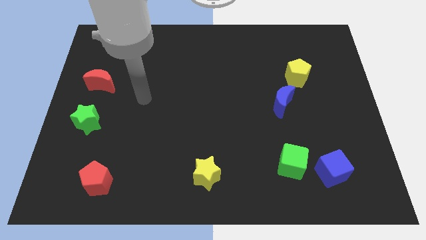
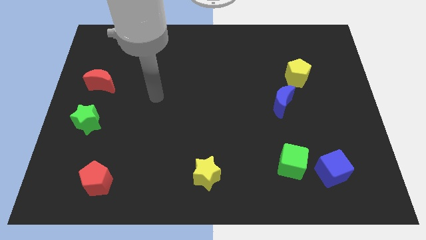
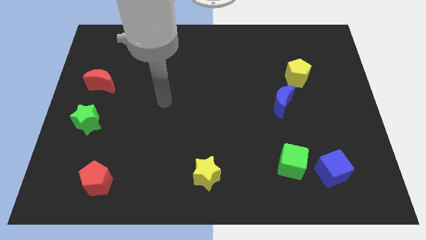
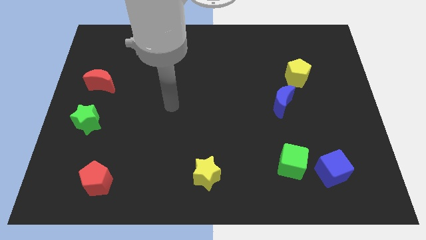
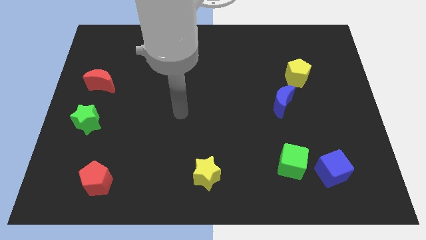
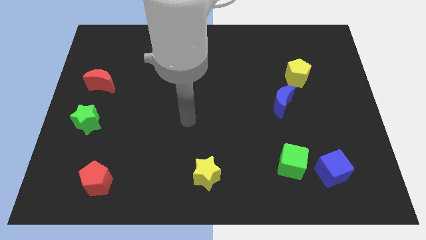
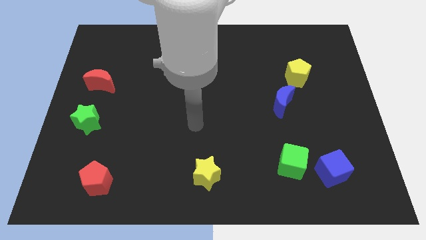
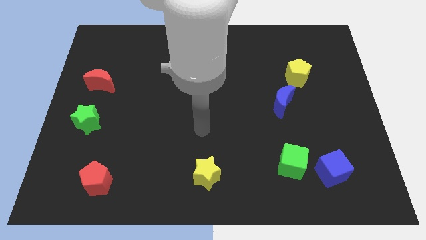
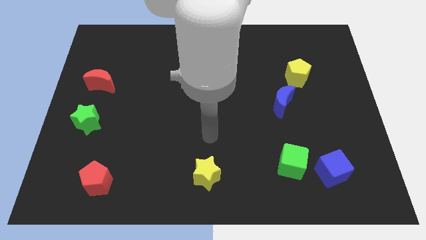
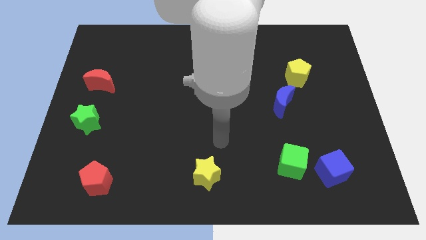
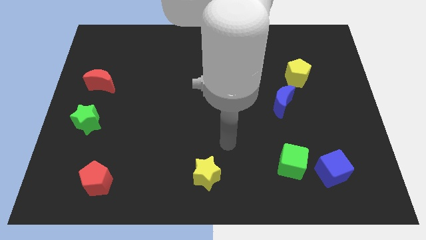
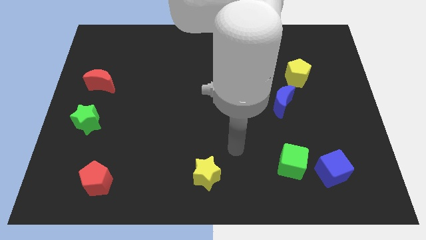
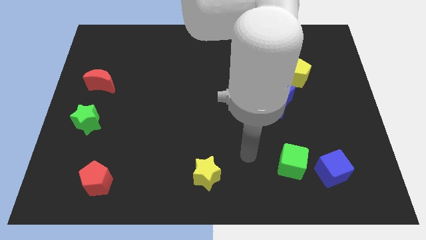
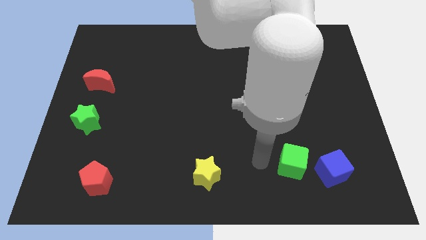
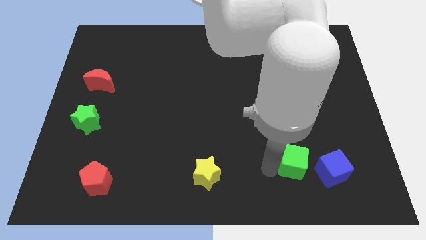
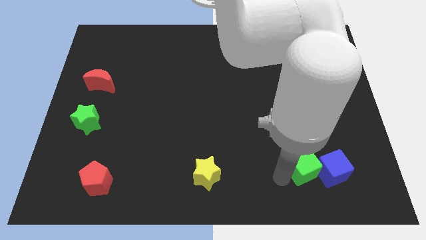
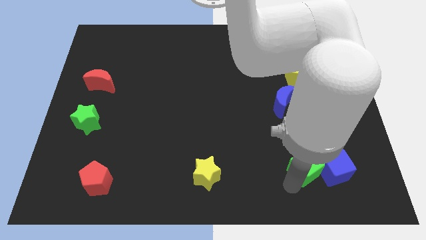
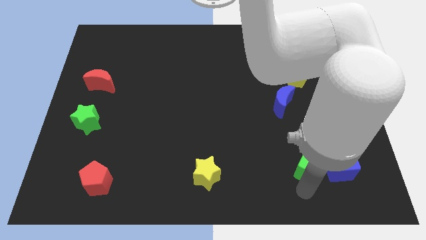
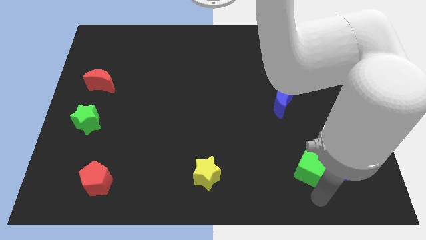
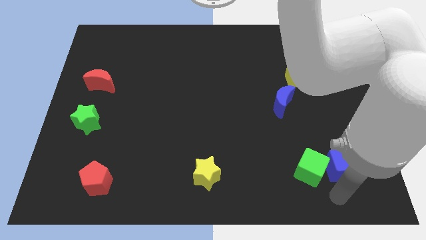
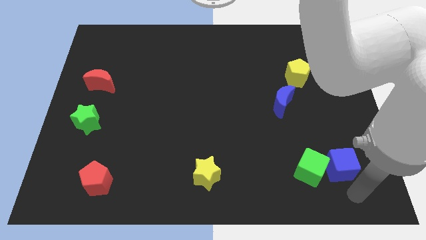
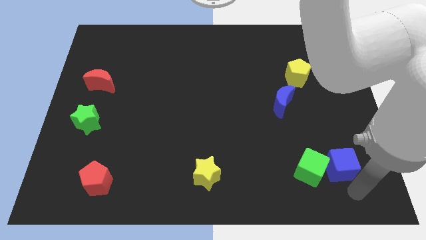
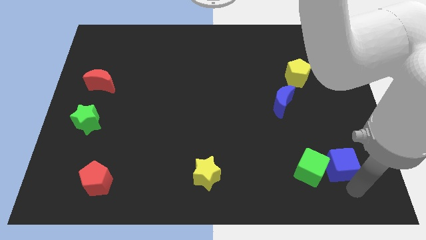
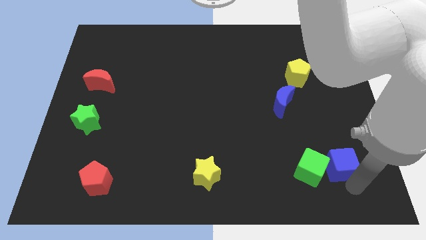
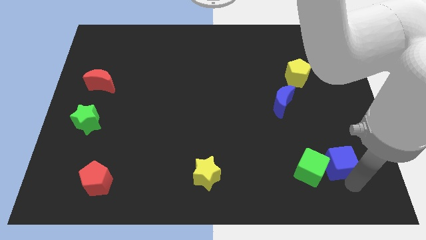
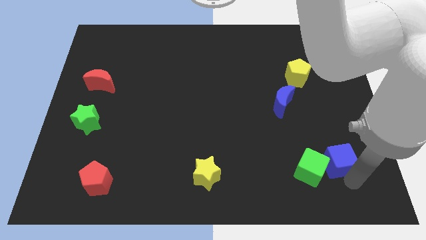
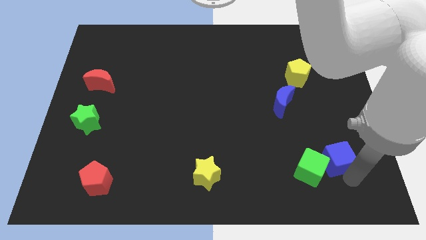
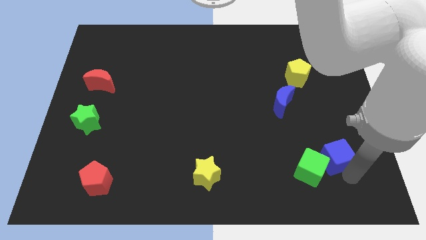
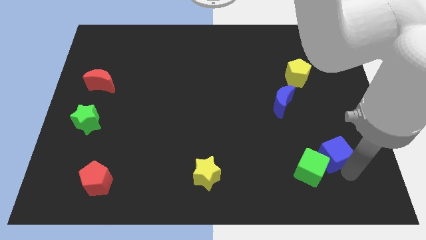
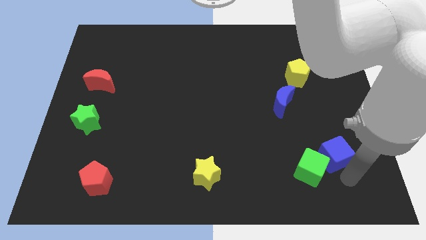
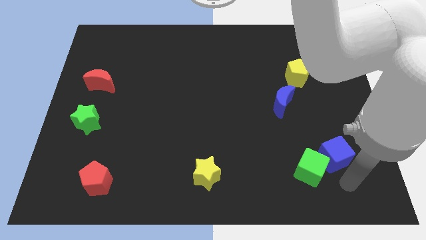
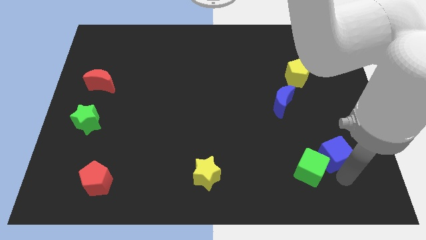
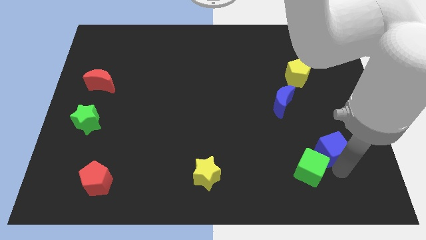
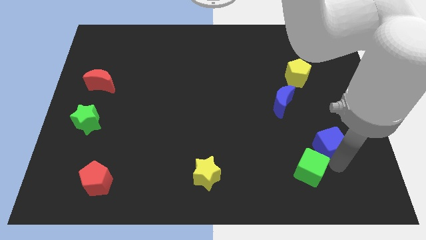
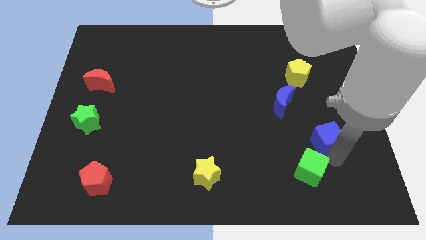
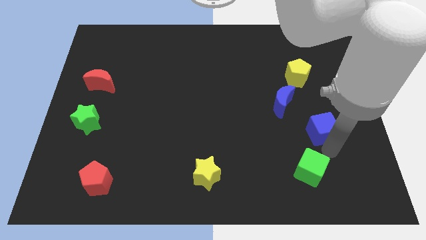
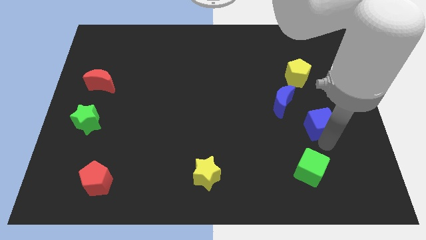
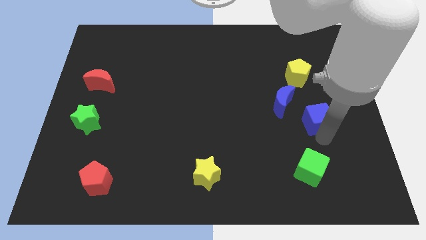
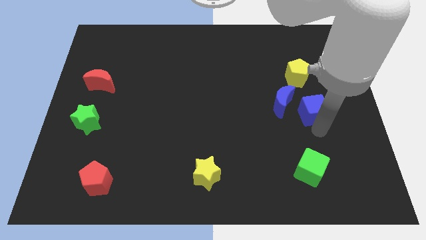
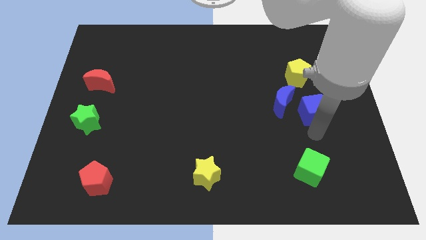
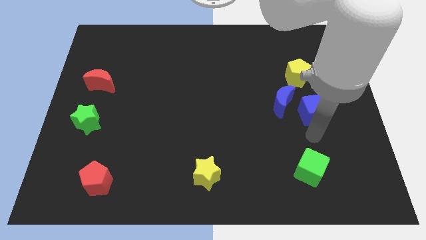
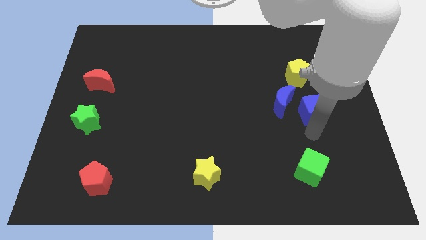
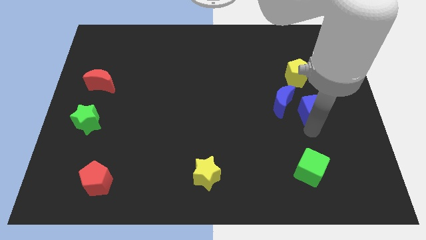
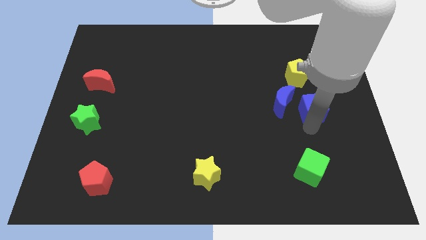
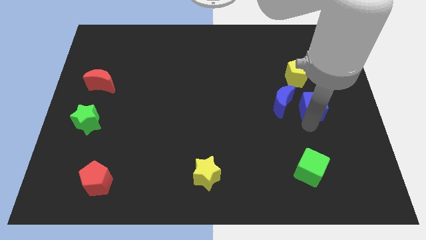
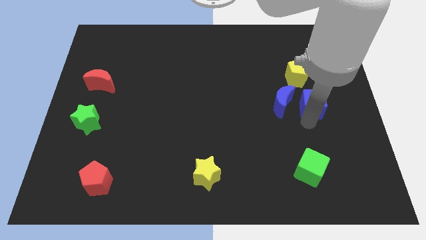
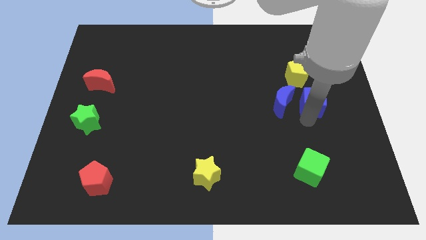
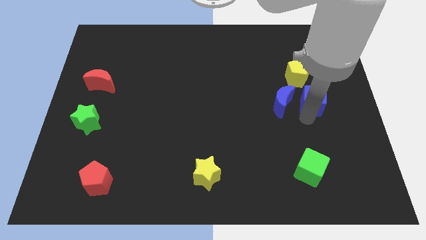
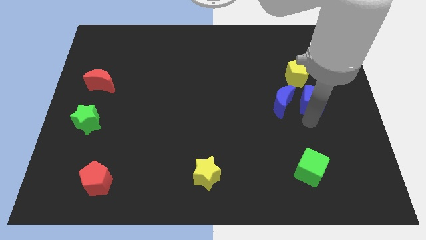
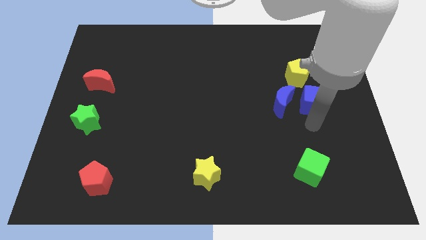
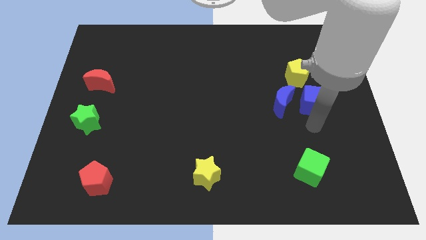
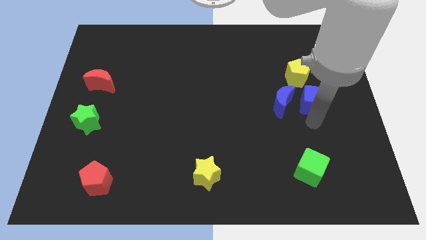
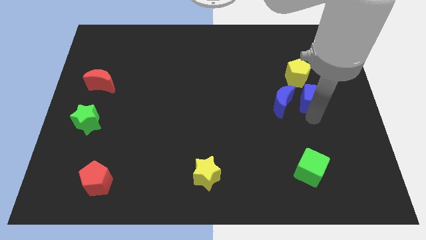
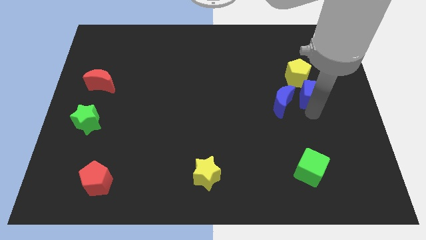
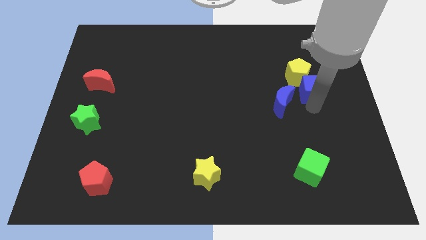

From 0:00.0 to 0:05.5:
slide the blue cube towards the yellow pentagon

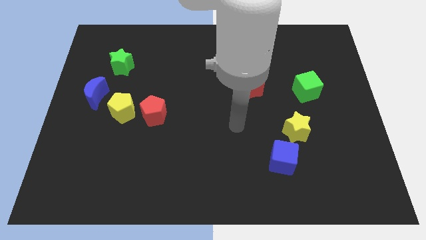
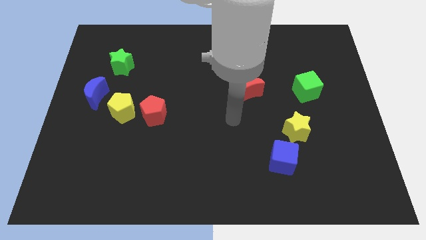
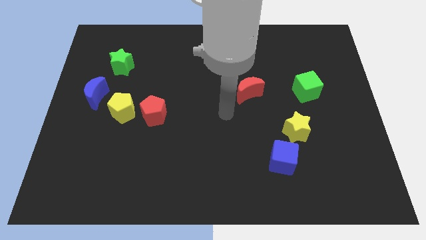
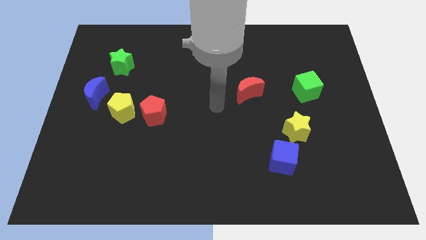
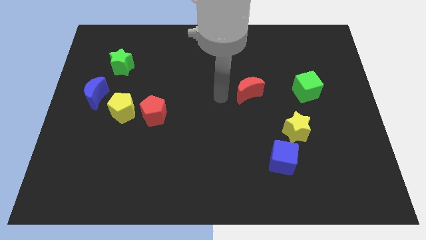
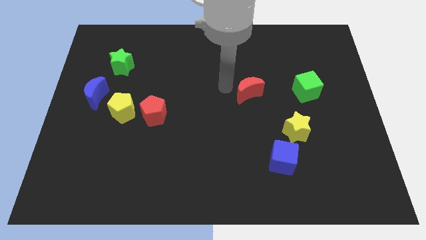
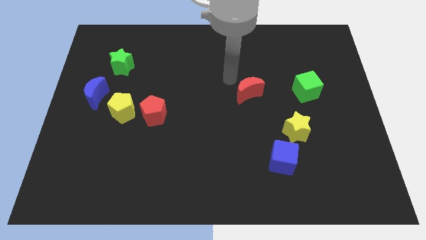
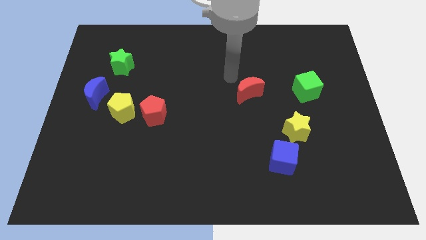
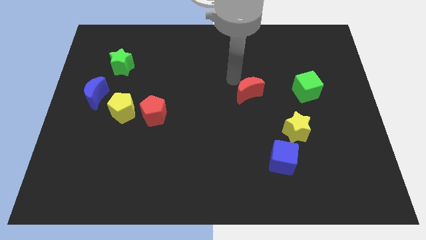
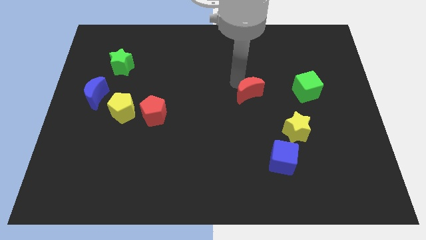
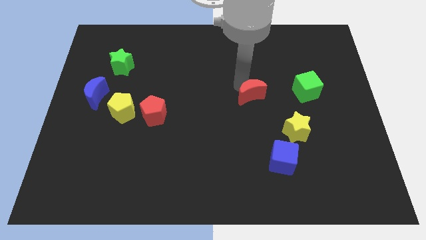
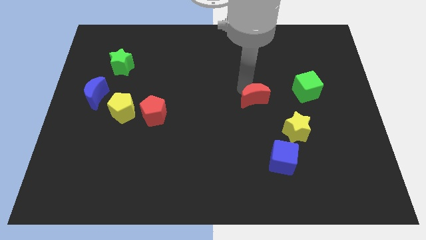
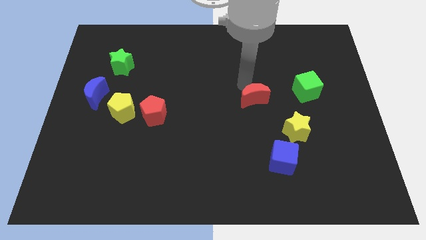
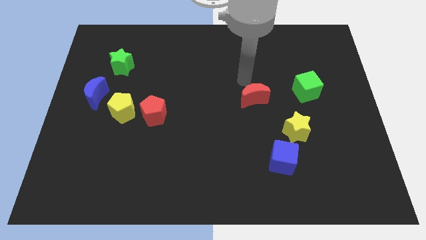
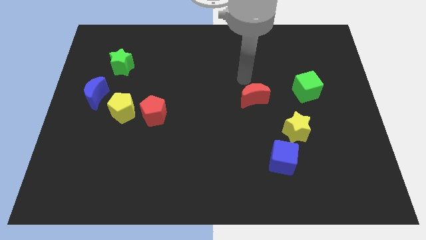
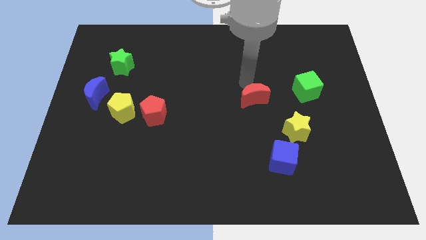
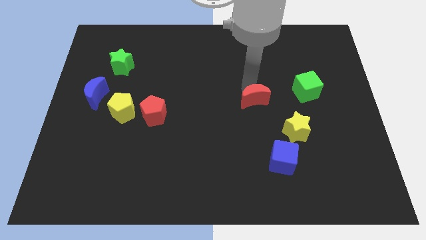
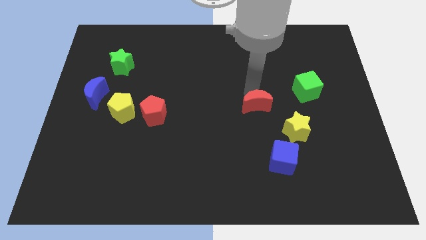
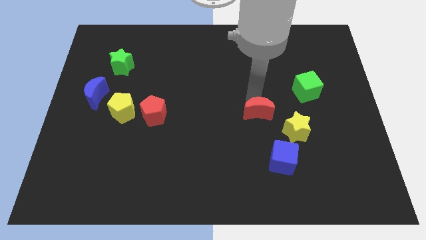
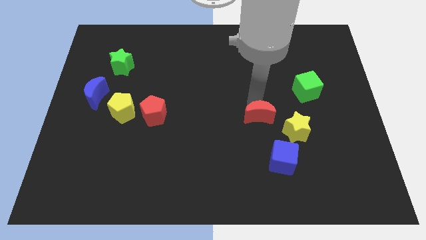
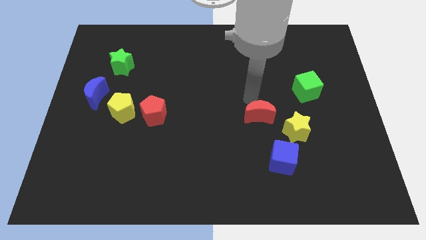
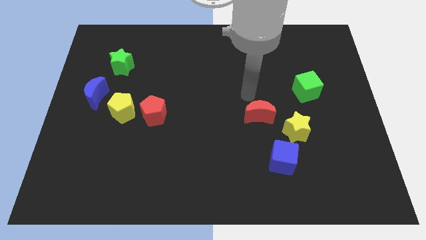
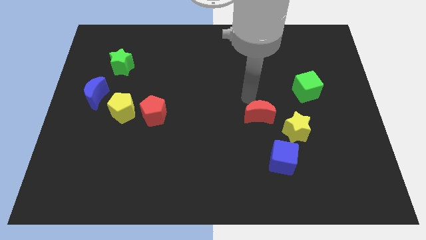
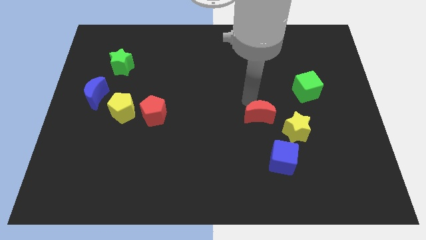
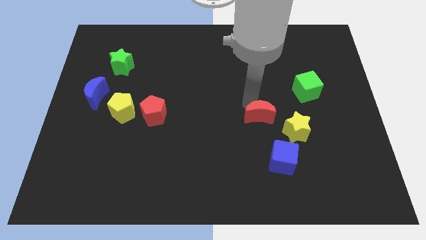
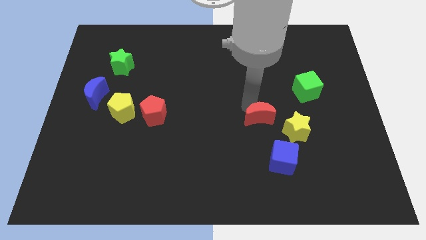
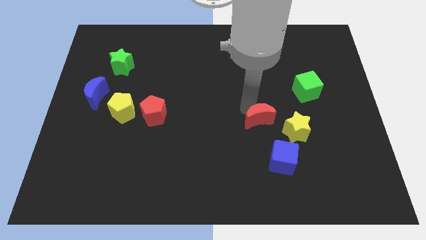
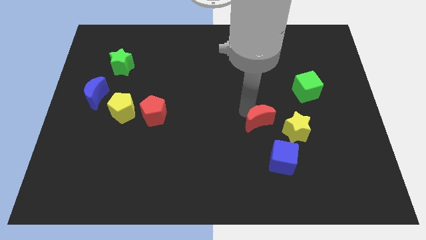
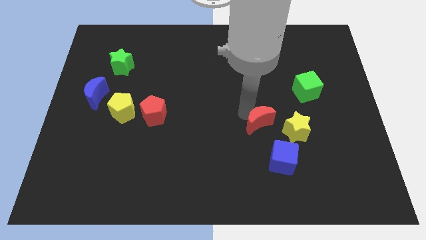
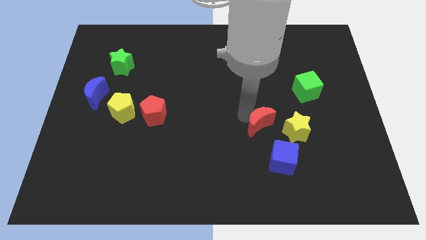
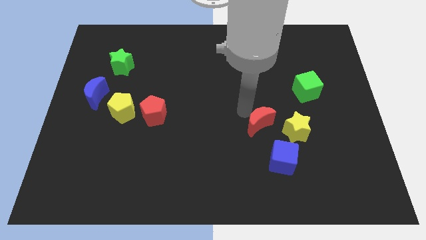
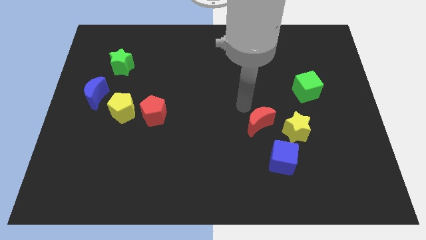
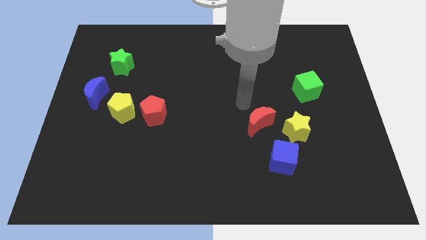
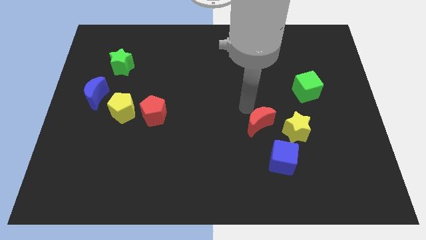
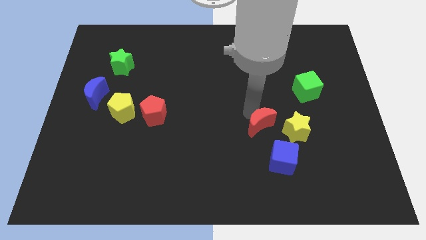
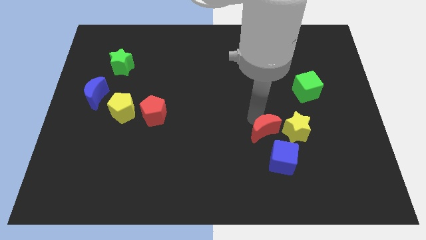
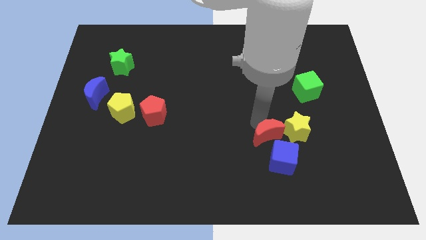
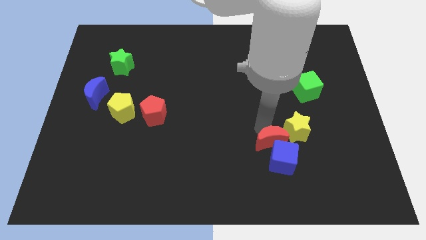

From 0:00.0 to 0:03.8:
slide the red moon close to the blue cube
